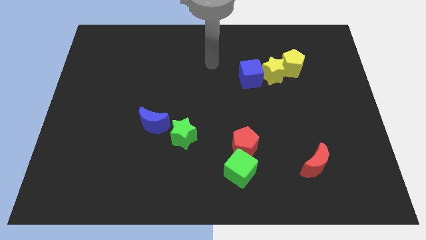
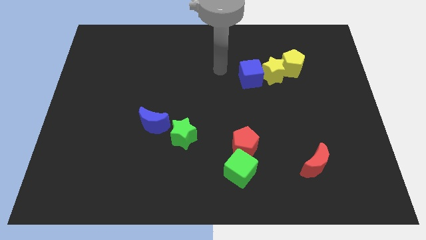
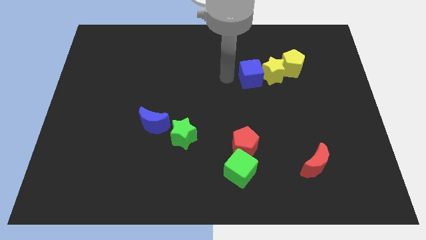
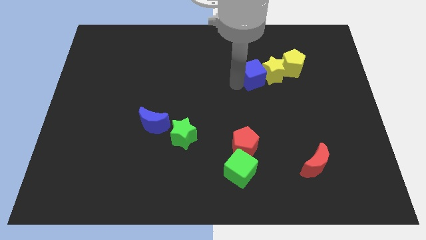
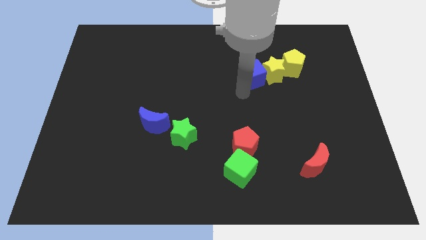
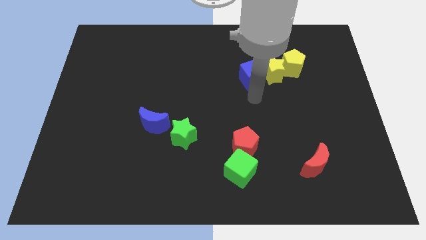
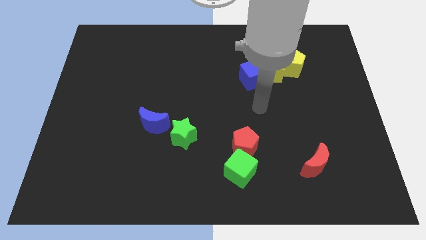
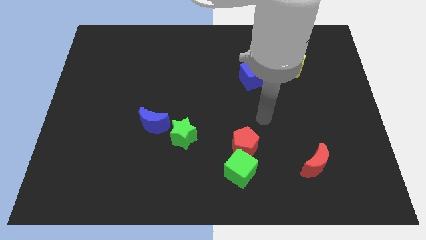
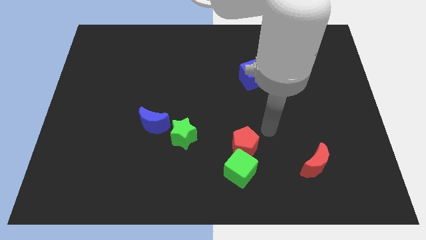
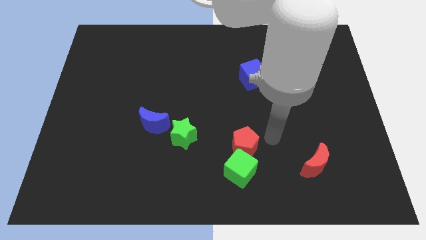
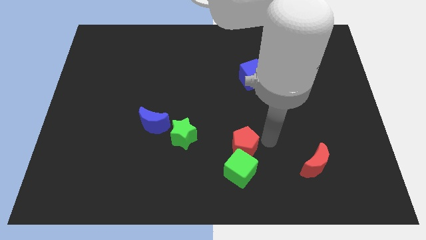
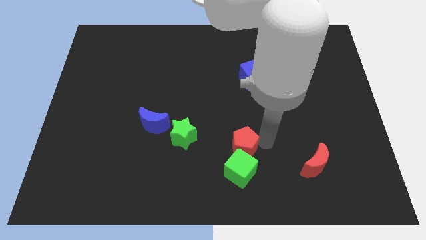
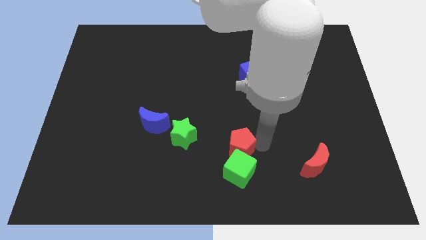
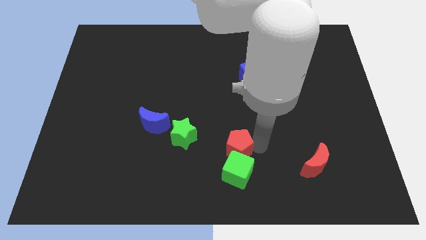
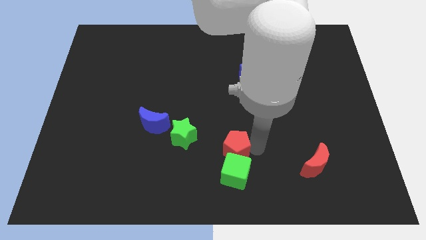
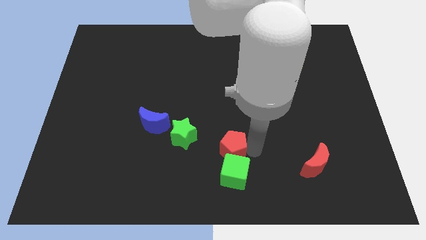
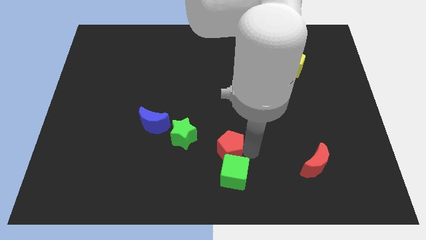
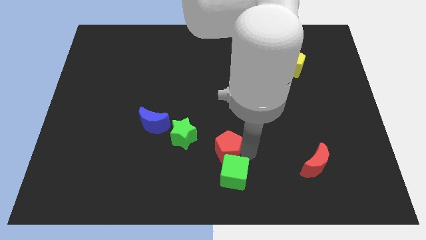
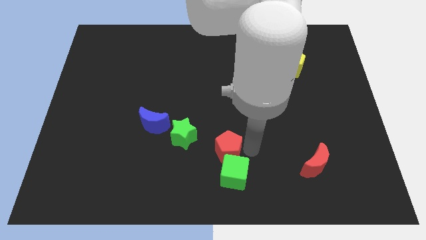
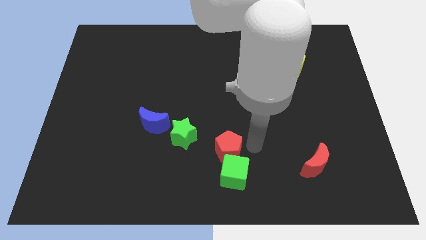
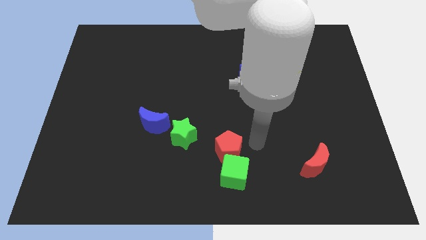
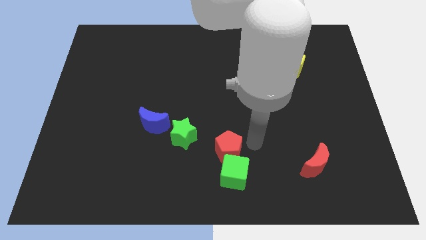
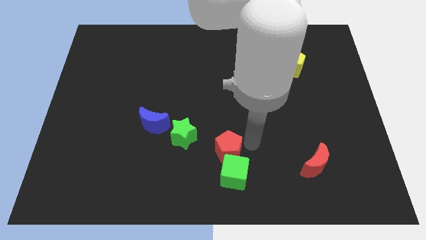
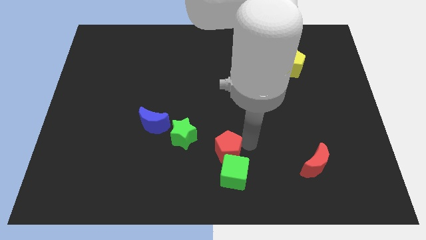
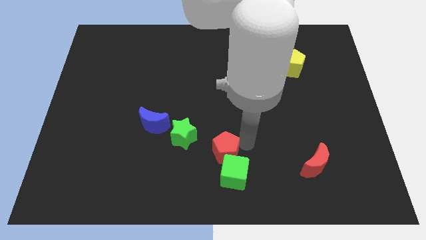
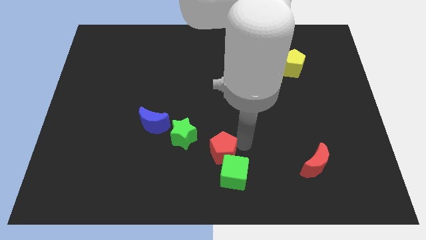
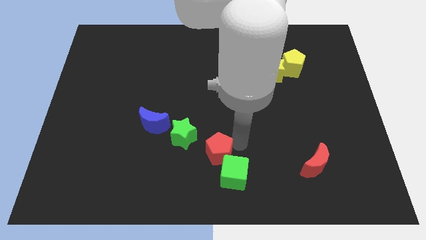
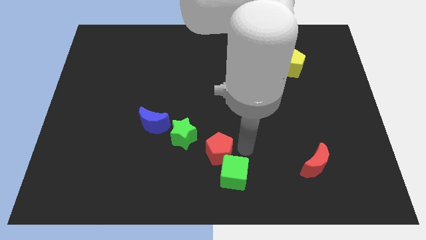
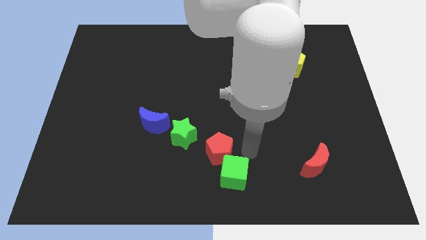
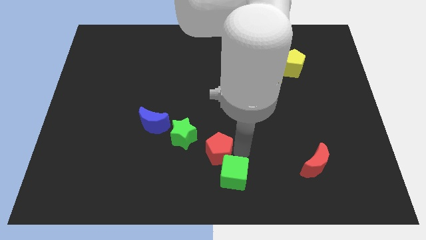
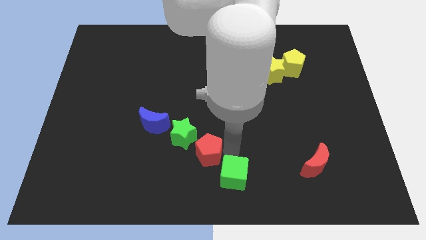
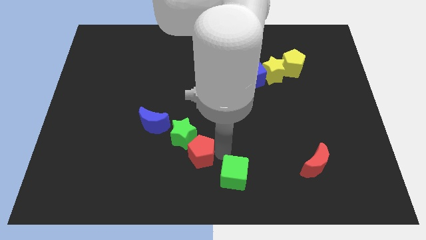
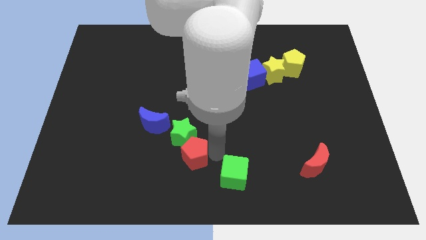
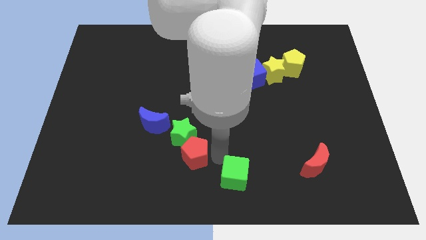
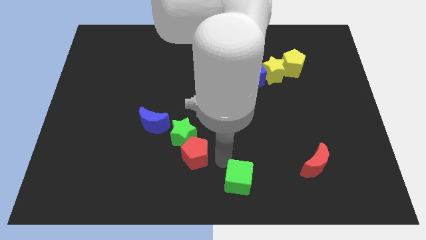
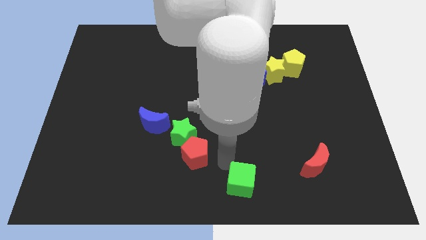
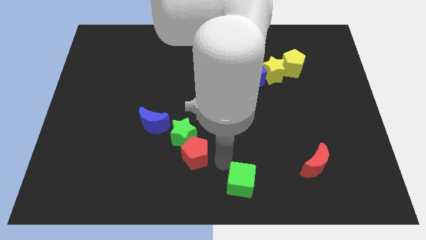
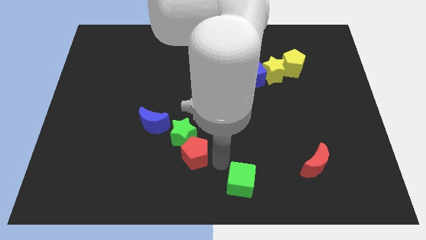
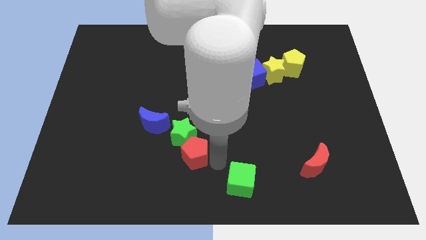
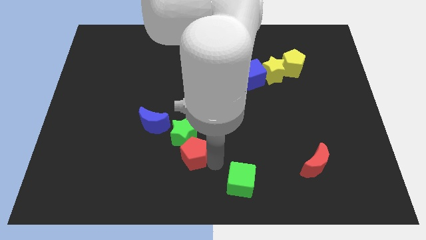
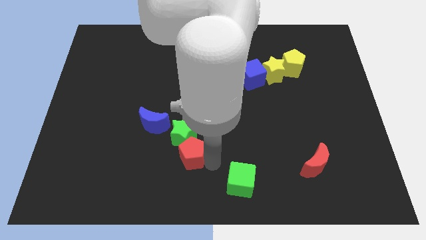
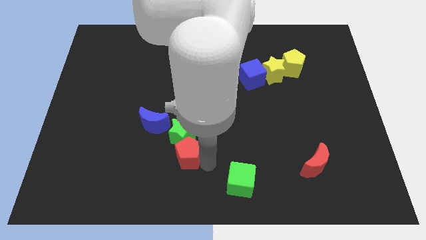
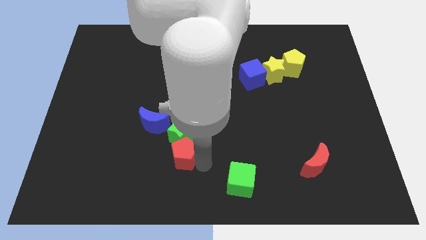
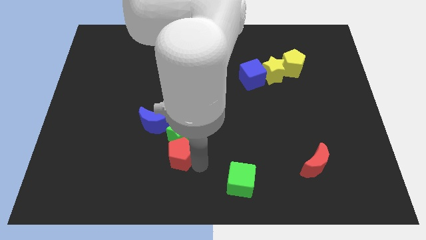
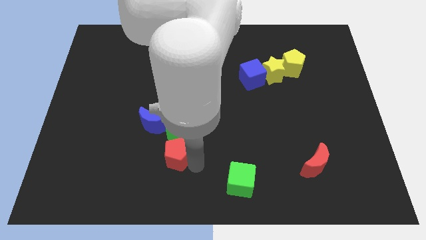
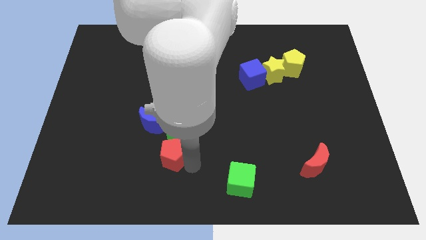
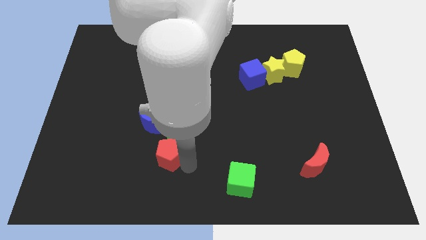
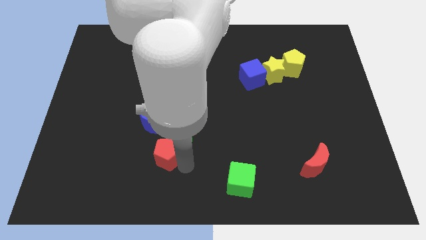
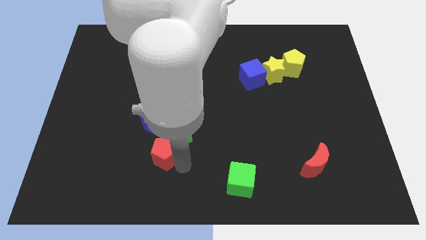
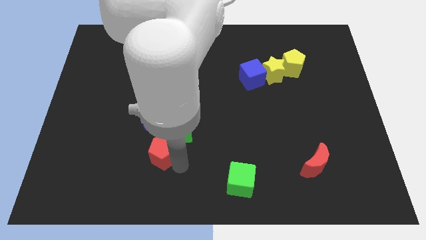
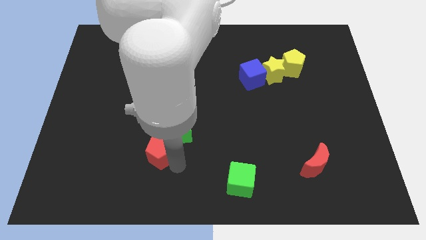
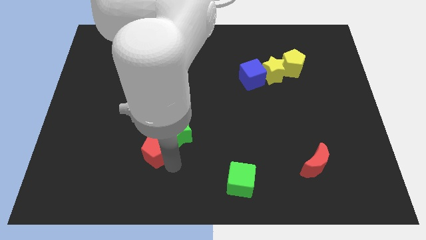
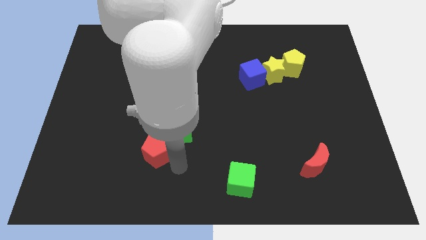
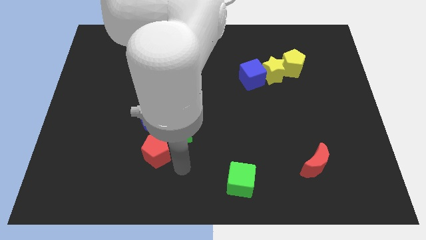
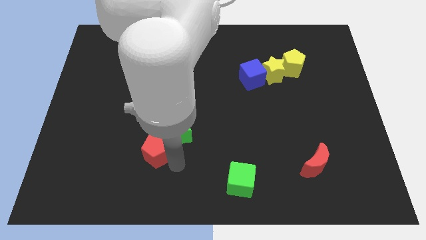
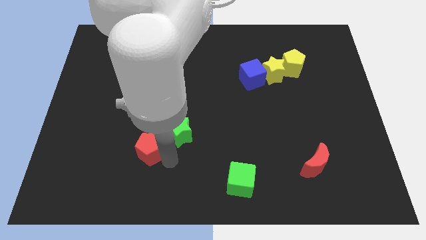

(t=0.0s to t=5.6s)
push the red pentagon left

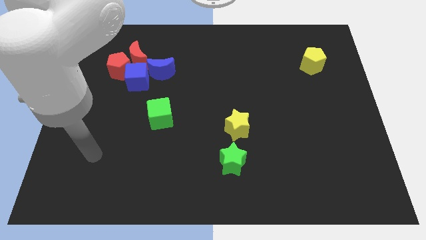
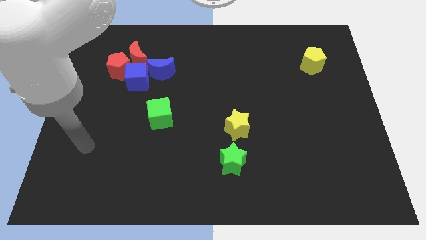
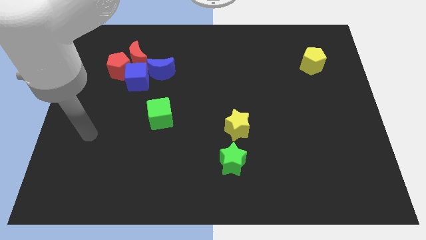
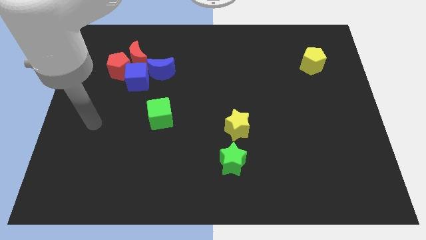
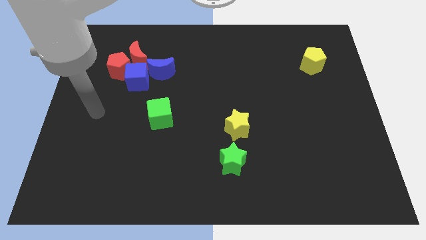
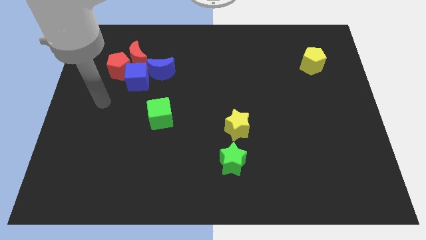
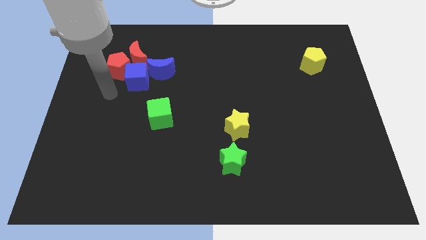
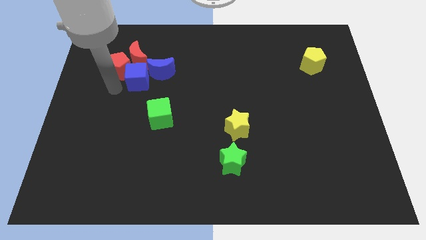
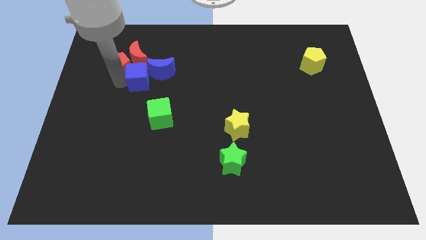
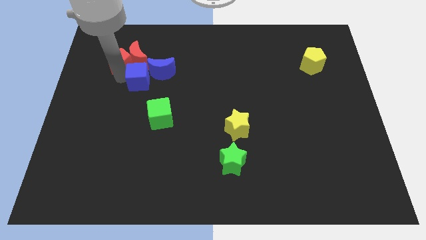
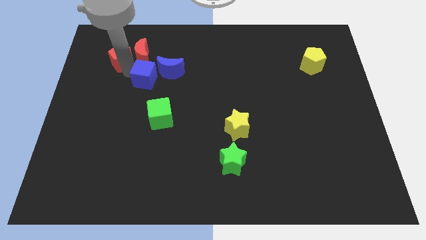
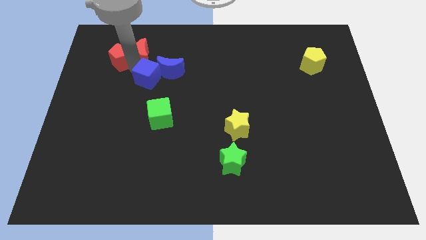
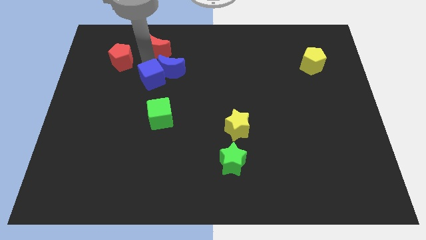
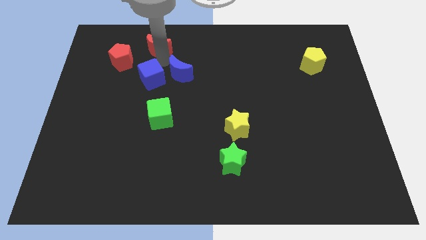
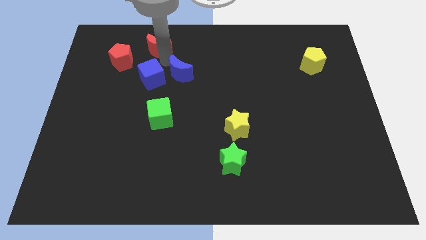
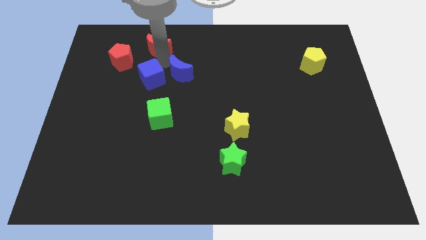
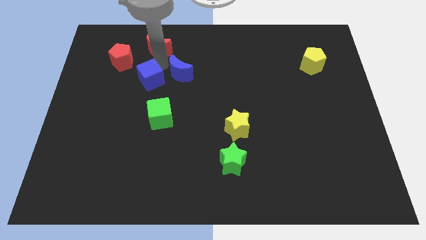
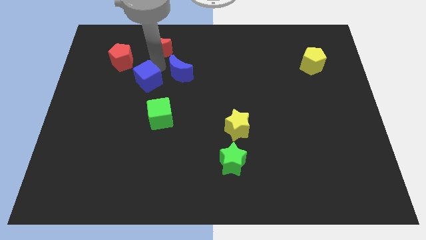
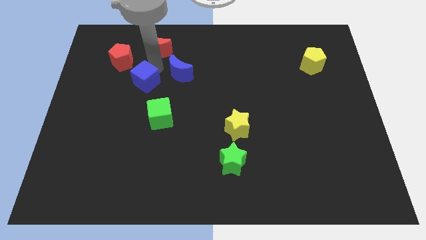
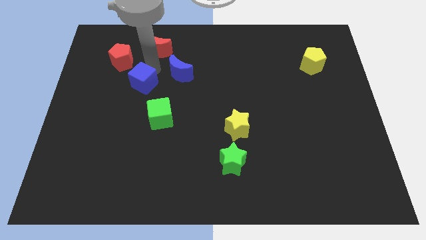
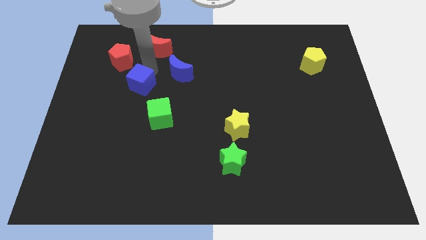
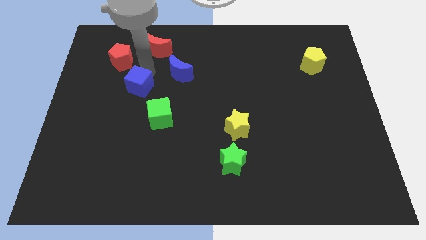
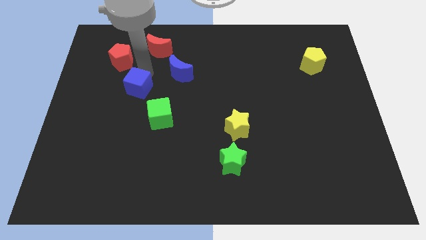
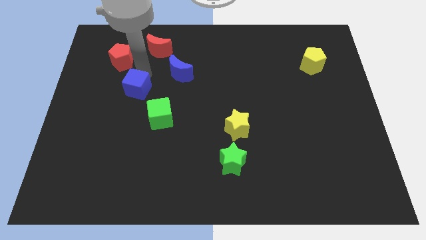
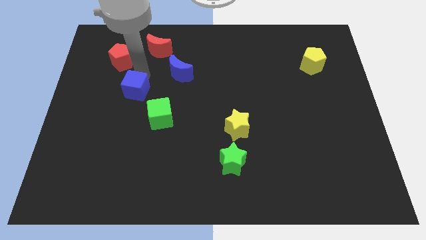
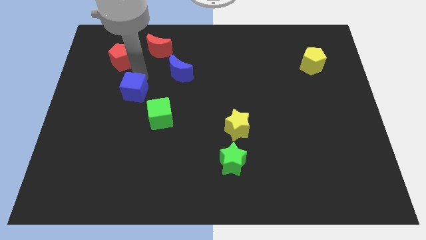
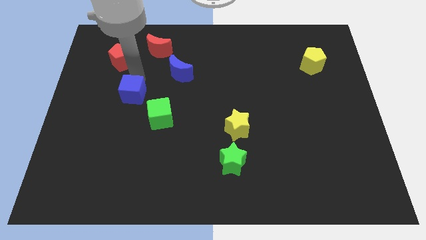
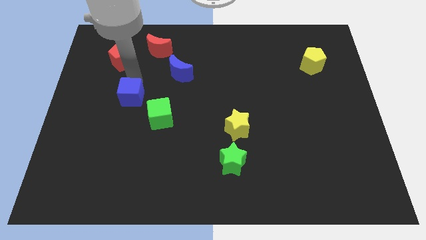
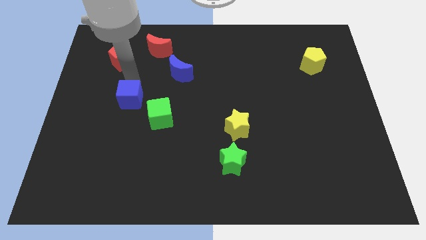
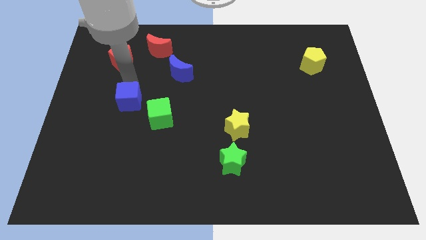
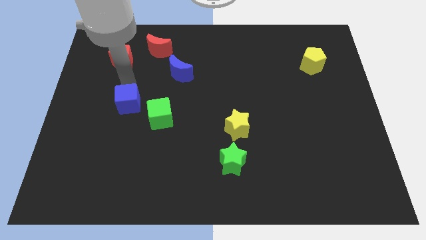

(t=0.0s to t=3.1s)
push the blue cube somewhat down
